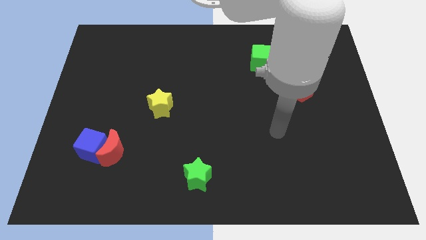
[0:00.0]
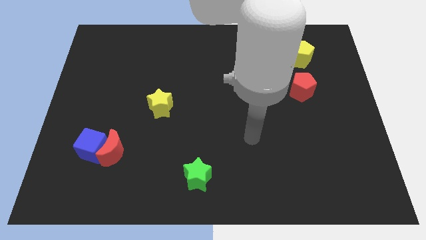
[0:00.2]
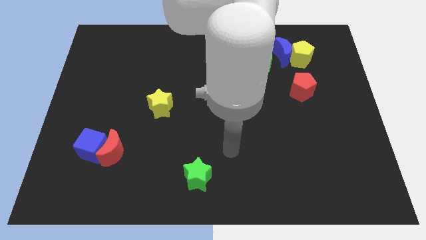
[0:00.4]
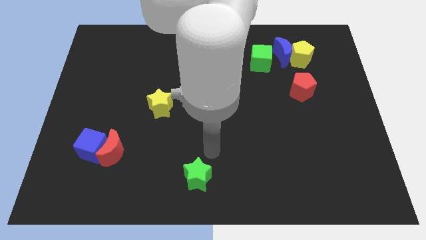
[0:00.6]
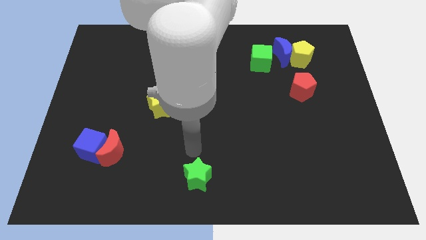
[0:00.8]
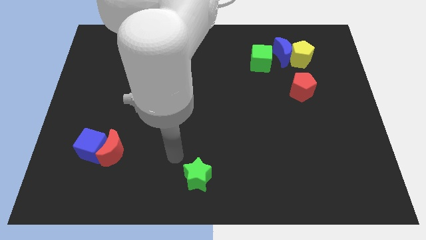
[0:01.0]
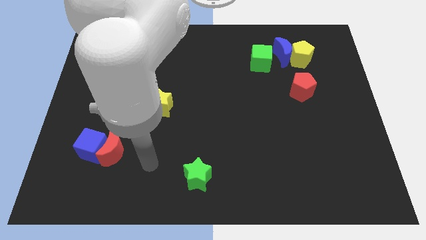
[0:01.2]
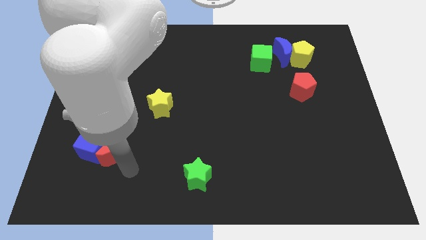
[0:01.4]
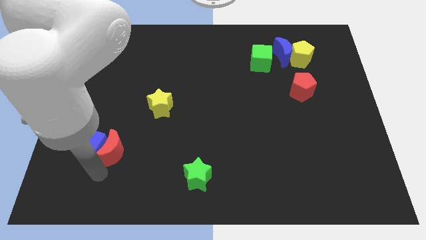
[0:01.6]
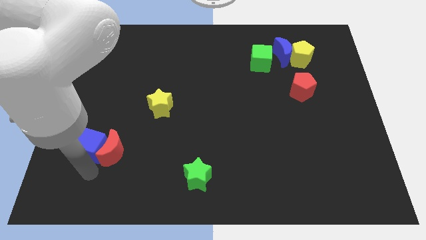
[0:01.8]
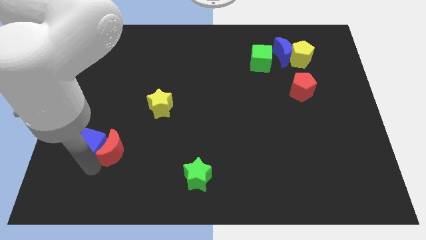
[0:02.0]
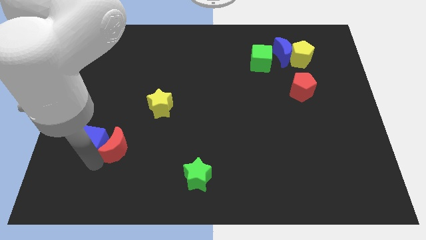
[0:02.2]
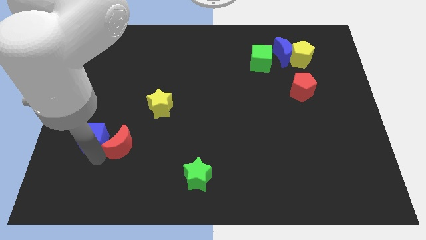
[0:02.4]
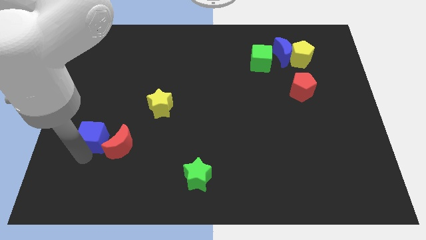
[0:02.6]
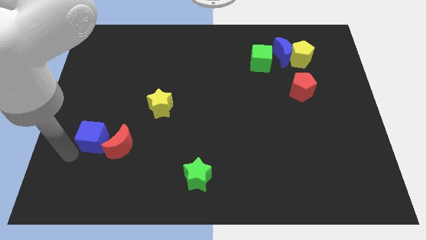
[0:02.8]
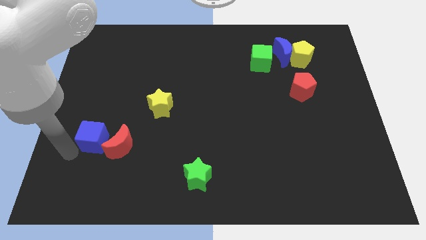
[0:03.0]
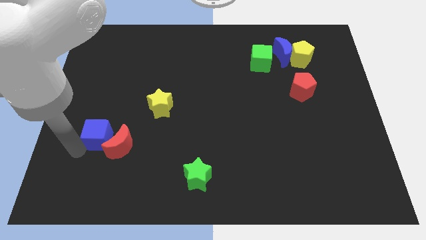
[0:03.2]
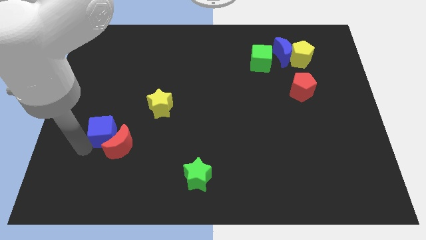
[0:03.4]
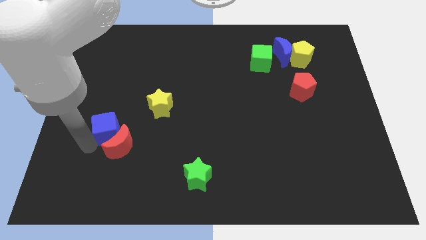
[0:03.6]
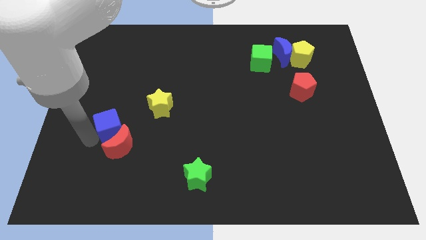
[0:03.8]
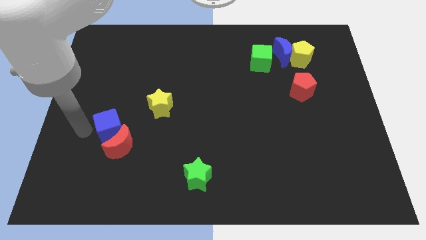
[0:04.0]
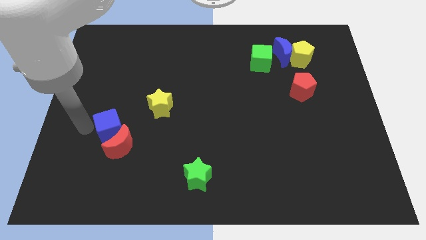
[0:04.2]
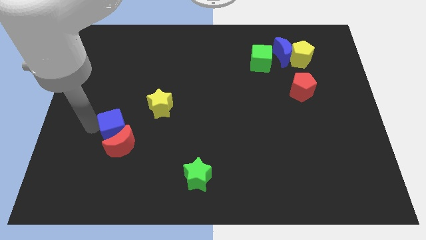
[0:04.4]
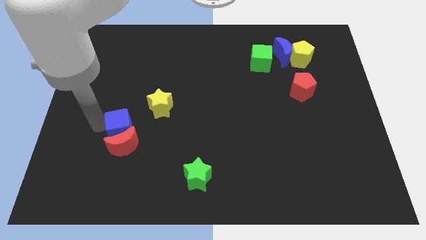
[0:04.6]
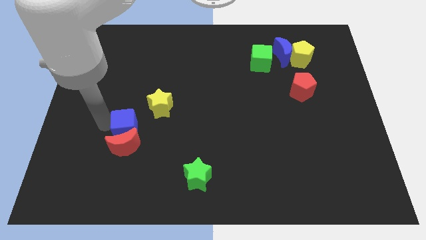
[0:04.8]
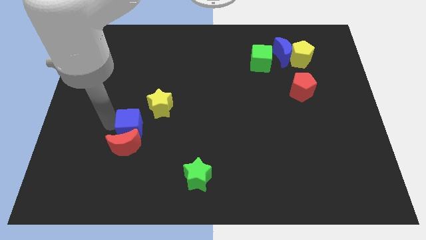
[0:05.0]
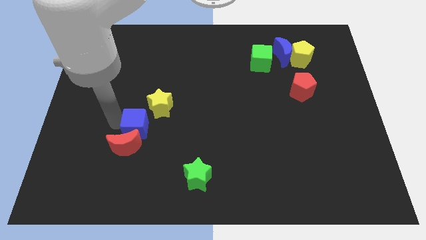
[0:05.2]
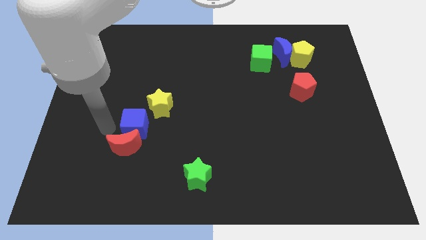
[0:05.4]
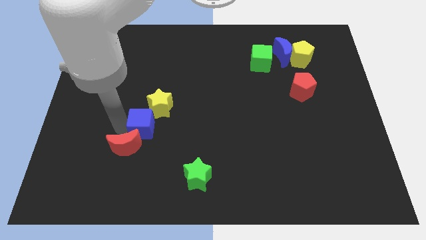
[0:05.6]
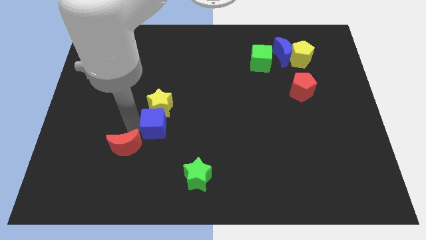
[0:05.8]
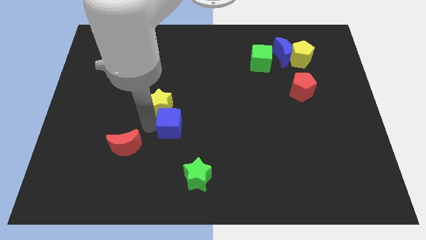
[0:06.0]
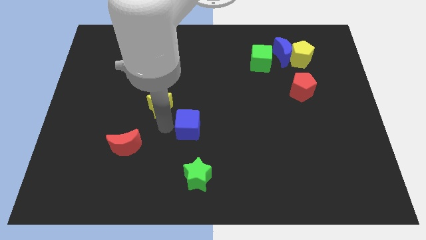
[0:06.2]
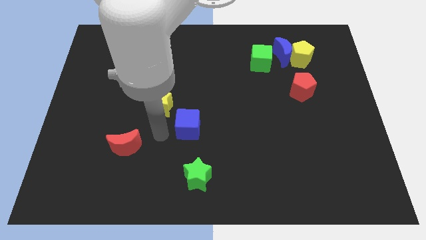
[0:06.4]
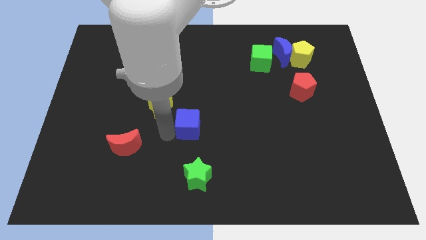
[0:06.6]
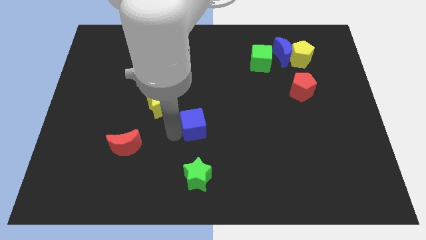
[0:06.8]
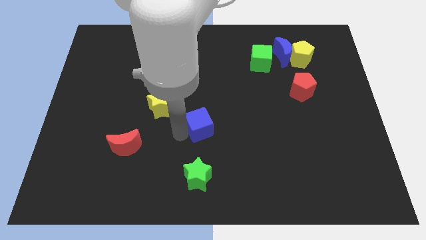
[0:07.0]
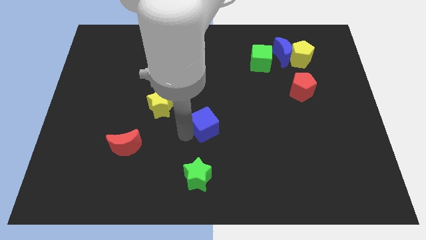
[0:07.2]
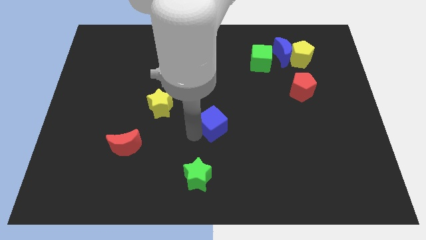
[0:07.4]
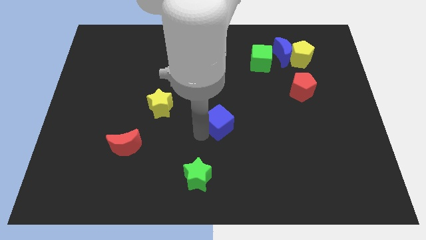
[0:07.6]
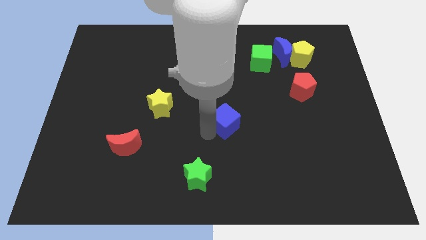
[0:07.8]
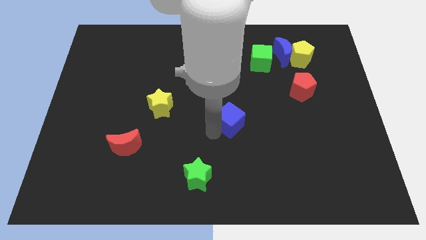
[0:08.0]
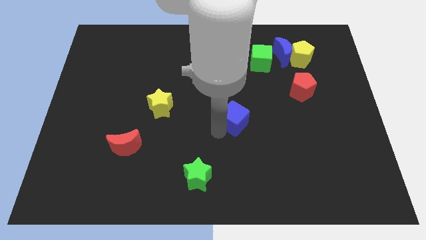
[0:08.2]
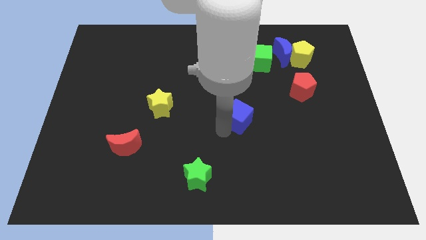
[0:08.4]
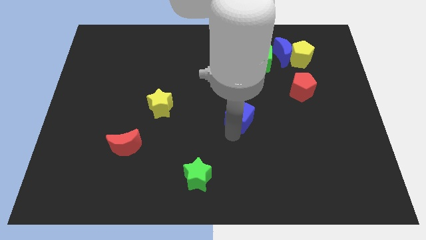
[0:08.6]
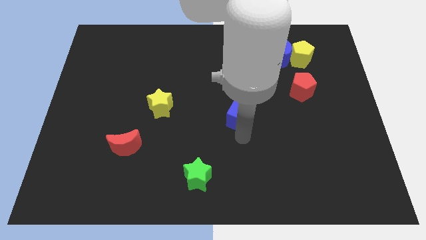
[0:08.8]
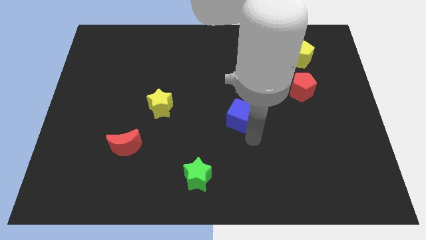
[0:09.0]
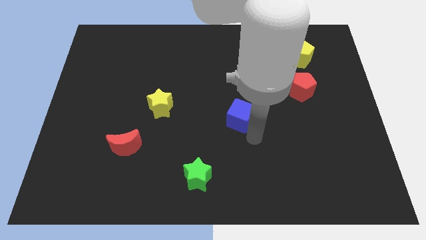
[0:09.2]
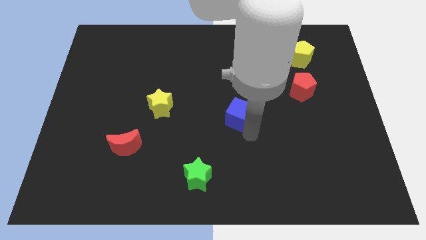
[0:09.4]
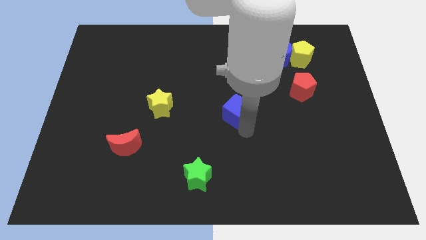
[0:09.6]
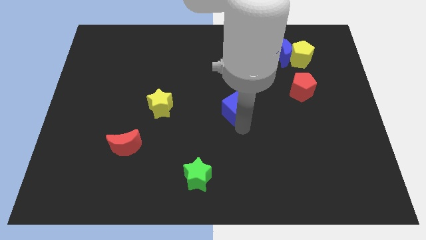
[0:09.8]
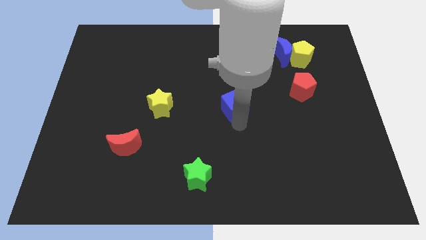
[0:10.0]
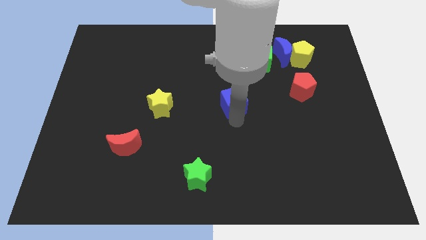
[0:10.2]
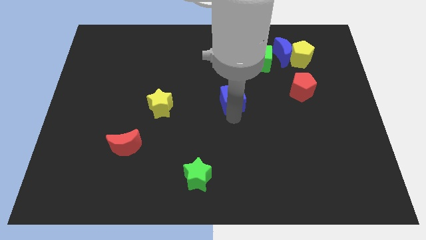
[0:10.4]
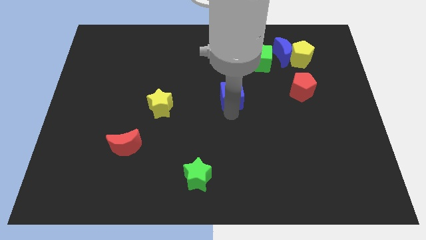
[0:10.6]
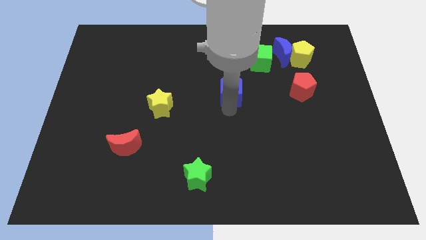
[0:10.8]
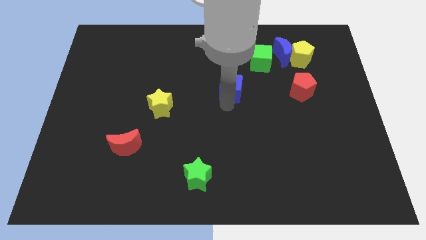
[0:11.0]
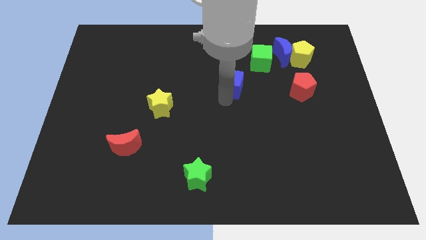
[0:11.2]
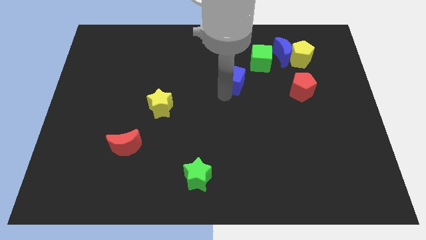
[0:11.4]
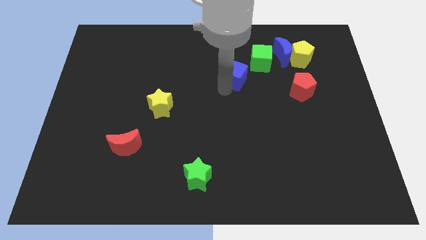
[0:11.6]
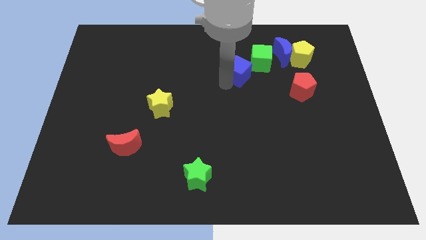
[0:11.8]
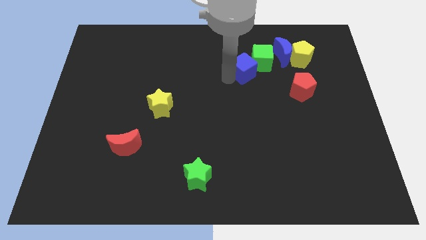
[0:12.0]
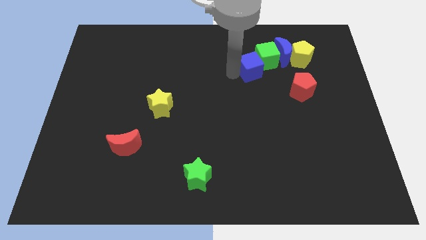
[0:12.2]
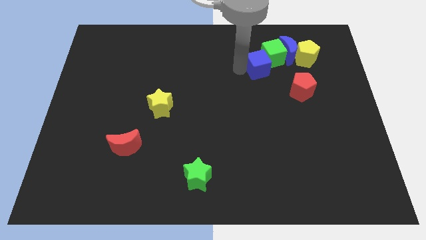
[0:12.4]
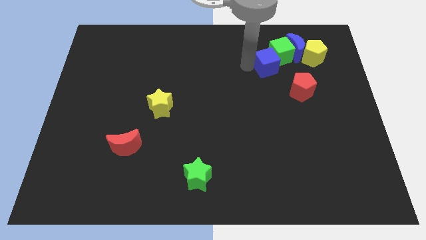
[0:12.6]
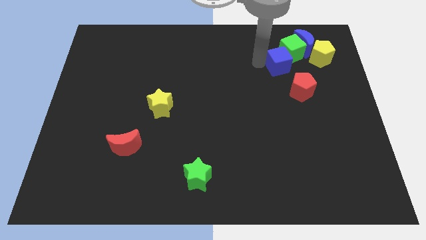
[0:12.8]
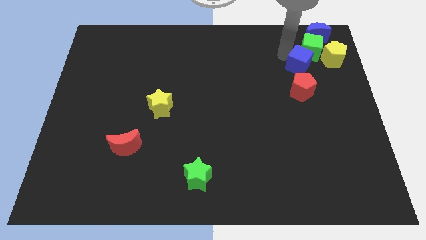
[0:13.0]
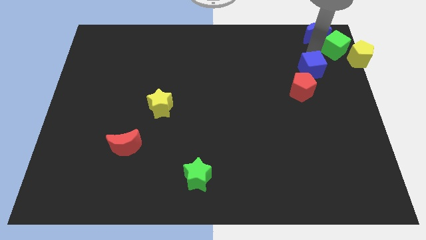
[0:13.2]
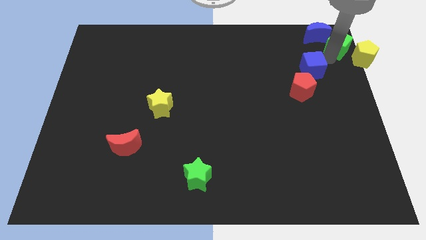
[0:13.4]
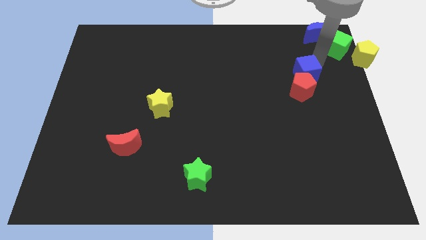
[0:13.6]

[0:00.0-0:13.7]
slide the blue cube towards the red pentagon

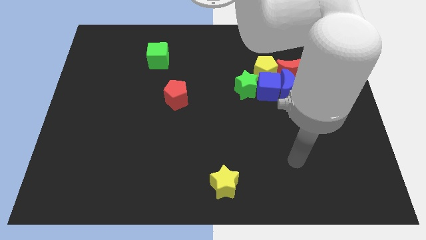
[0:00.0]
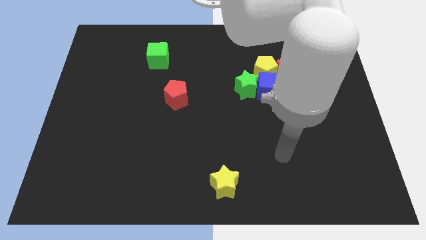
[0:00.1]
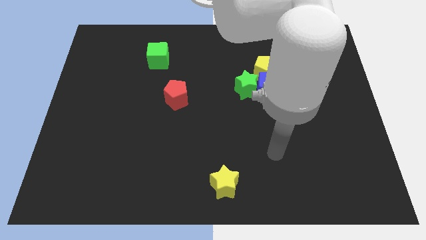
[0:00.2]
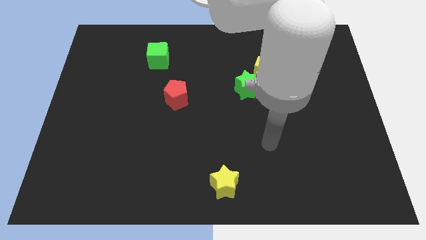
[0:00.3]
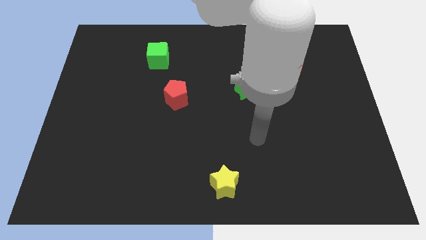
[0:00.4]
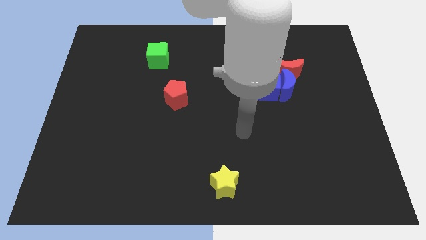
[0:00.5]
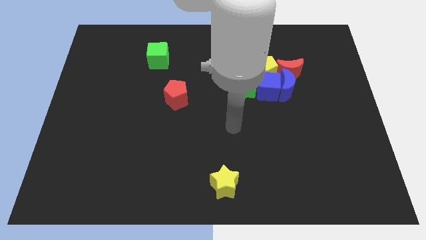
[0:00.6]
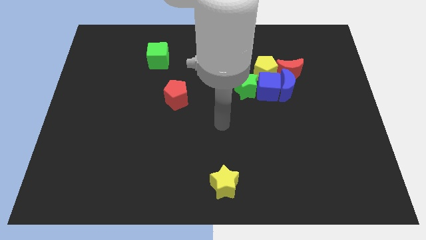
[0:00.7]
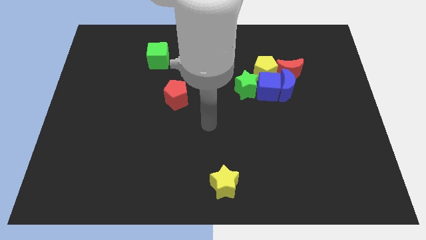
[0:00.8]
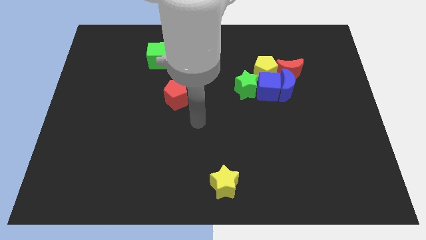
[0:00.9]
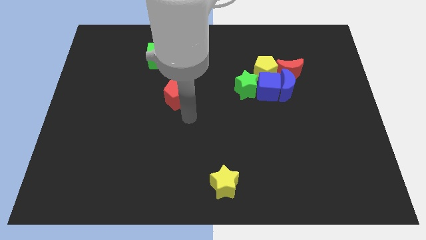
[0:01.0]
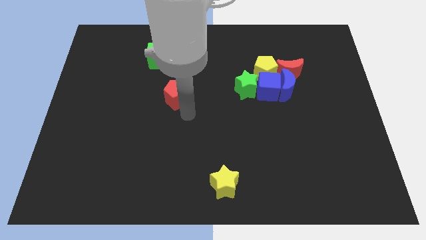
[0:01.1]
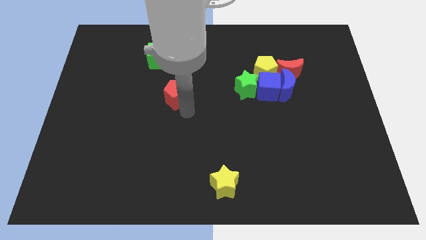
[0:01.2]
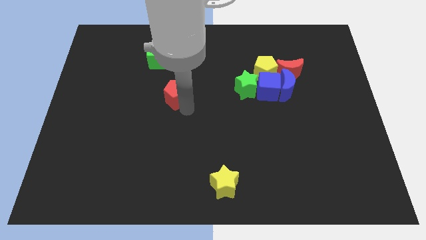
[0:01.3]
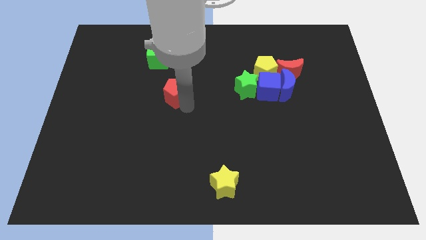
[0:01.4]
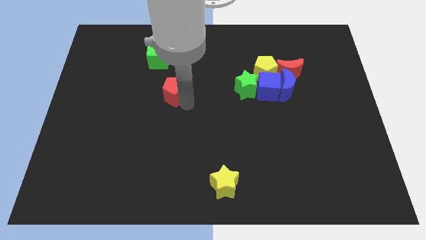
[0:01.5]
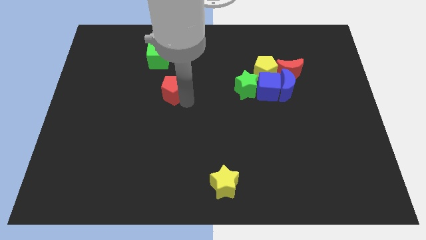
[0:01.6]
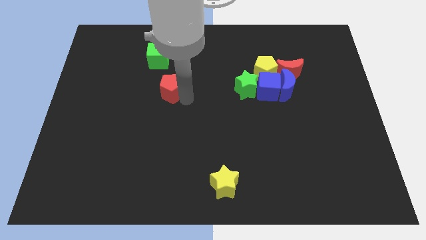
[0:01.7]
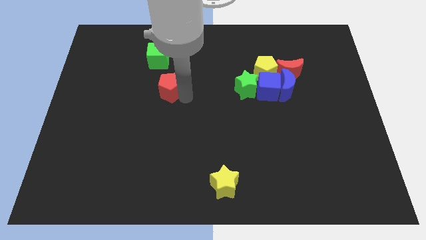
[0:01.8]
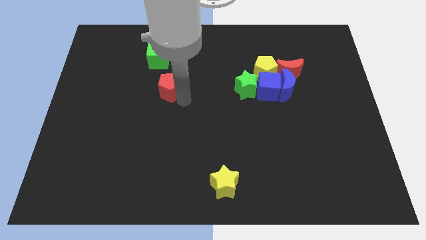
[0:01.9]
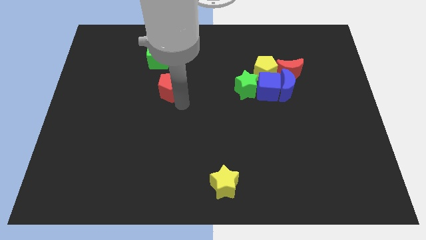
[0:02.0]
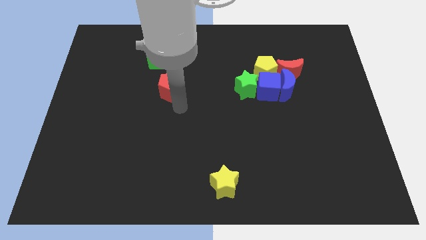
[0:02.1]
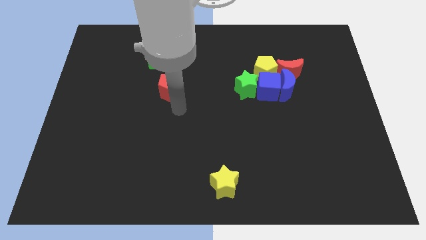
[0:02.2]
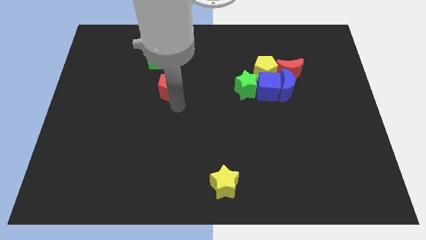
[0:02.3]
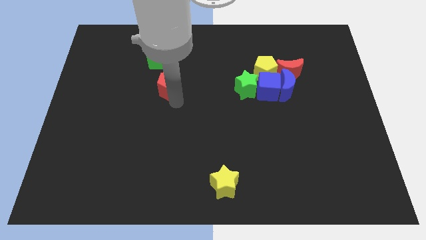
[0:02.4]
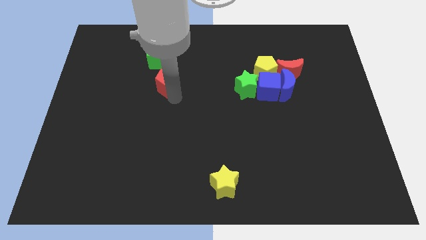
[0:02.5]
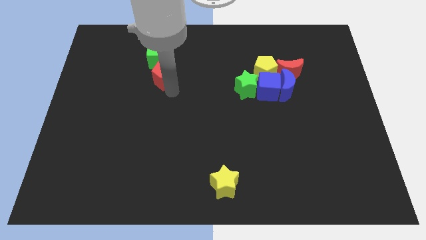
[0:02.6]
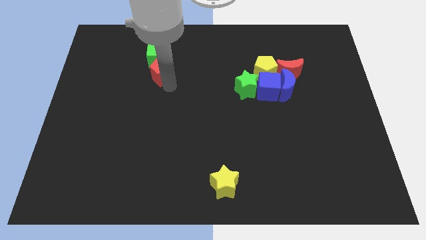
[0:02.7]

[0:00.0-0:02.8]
put the red pentagon towards the green cube
